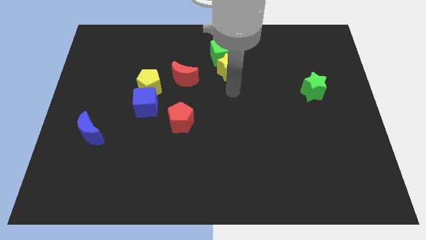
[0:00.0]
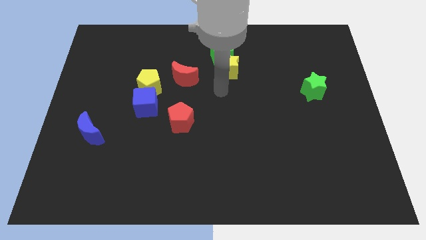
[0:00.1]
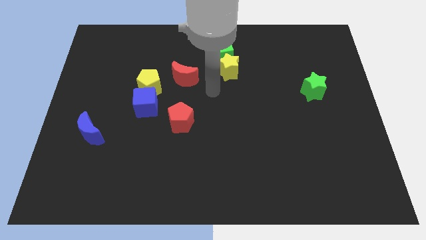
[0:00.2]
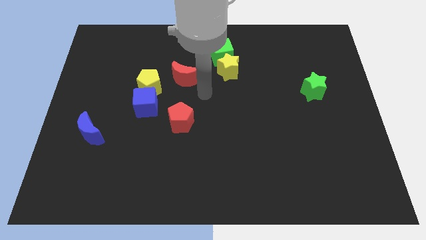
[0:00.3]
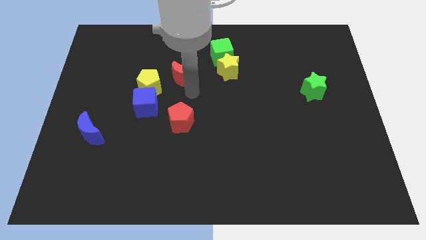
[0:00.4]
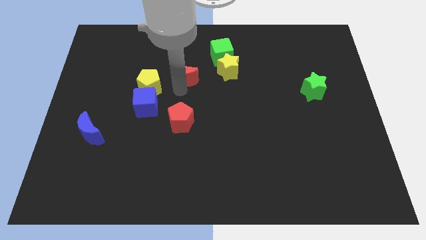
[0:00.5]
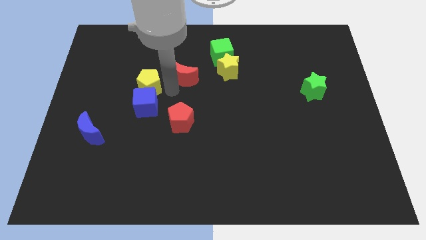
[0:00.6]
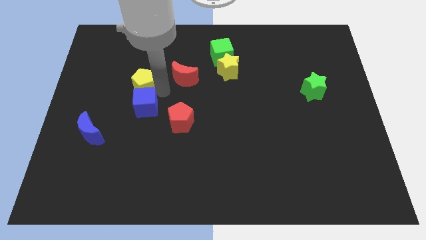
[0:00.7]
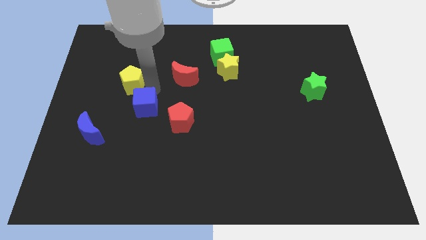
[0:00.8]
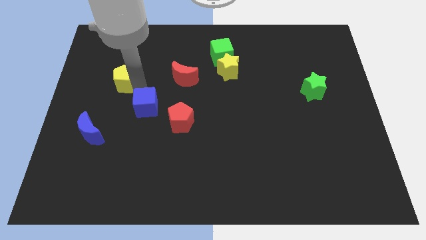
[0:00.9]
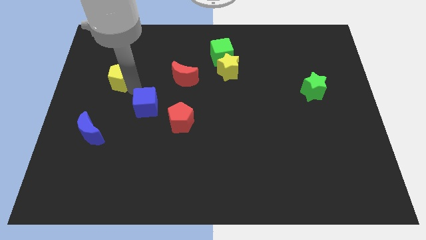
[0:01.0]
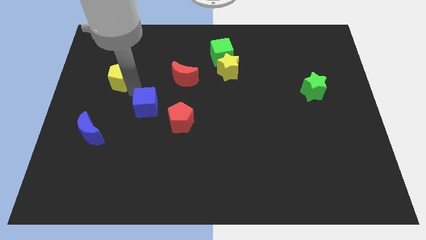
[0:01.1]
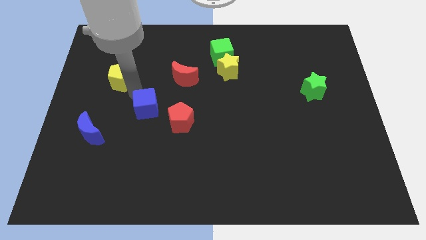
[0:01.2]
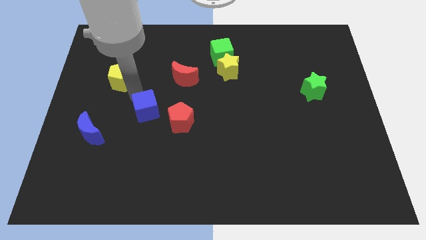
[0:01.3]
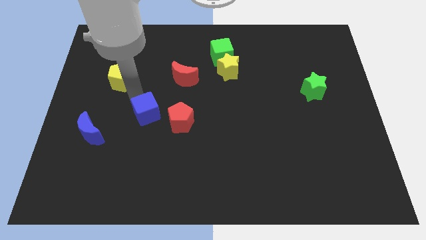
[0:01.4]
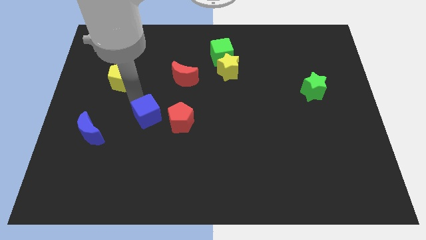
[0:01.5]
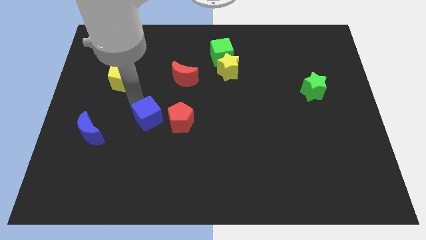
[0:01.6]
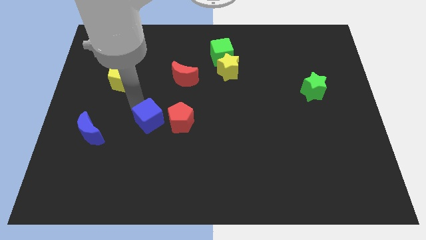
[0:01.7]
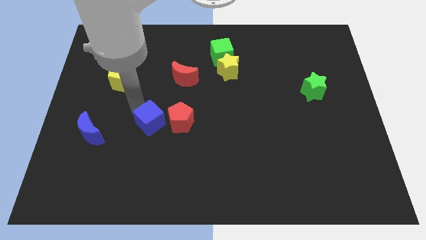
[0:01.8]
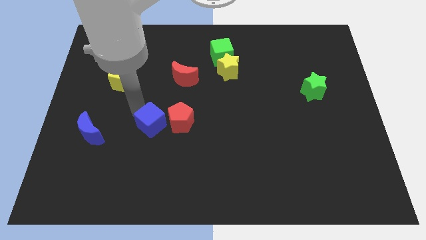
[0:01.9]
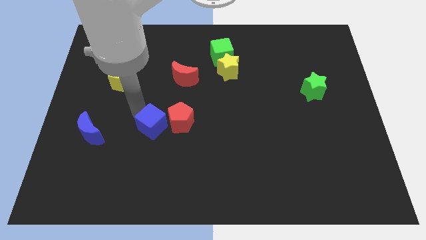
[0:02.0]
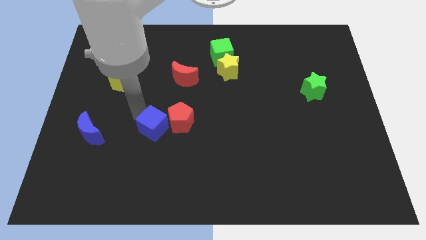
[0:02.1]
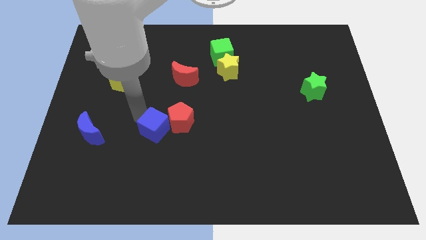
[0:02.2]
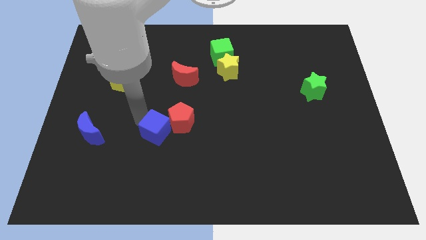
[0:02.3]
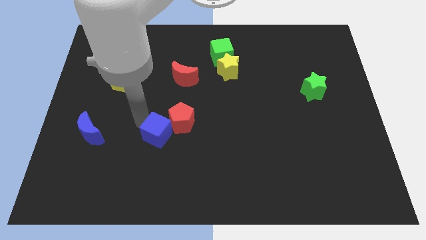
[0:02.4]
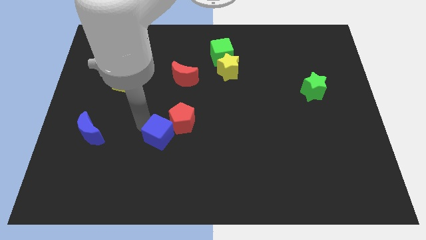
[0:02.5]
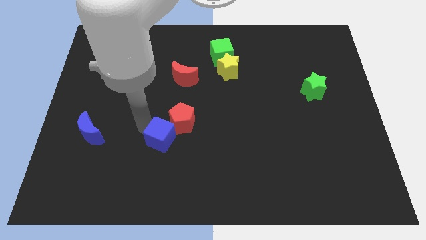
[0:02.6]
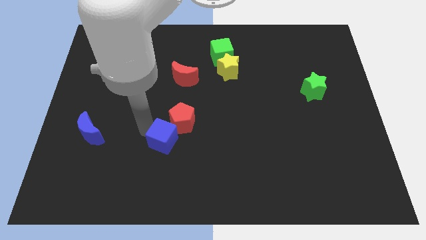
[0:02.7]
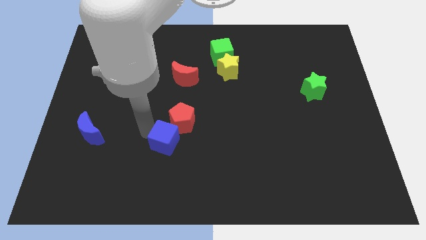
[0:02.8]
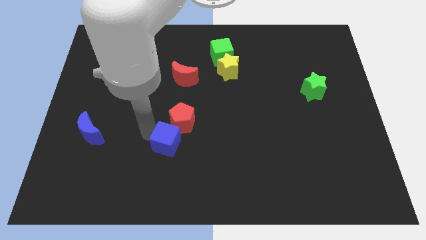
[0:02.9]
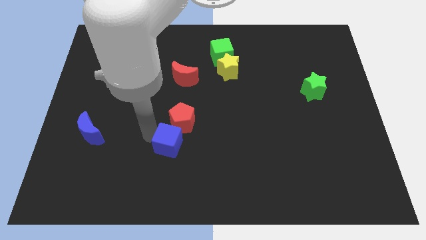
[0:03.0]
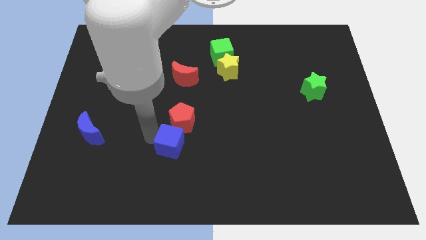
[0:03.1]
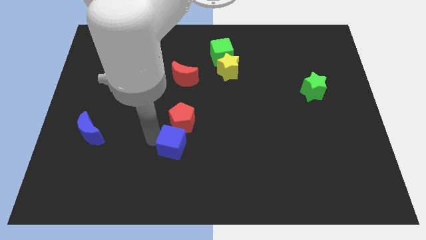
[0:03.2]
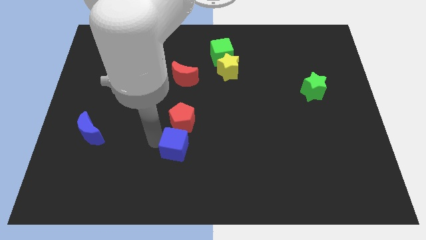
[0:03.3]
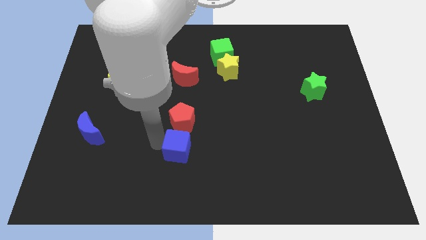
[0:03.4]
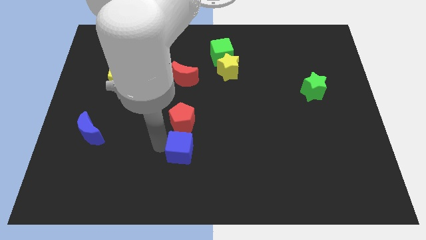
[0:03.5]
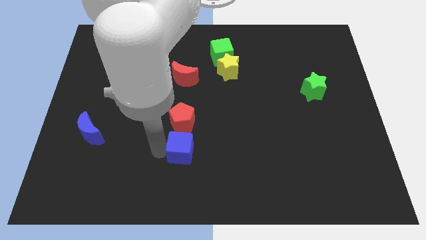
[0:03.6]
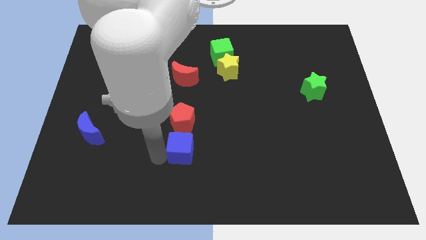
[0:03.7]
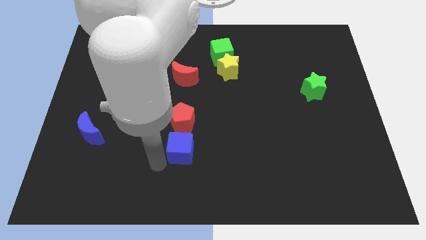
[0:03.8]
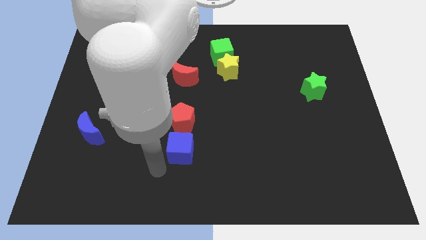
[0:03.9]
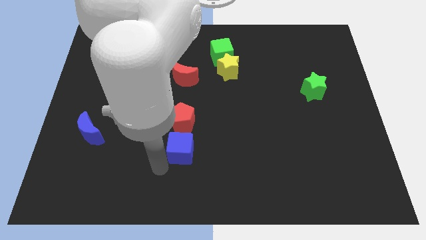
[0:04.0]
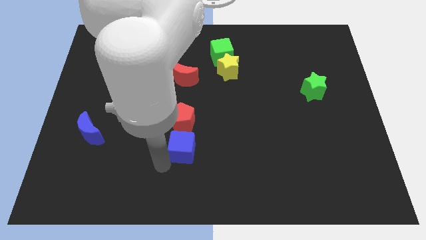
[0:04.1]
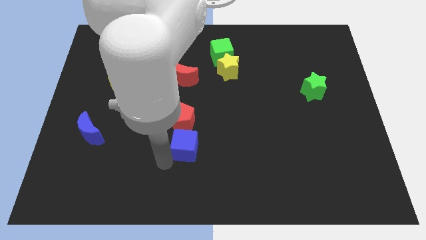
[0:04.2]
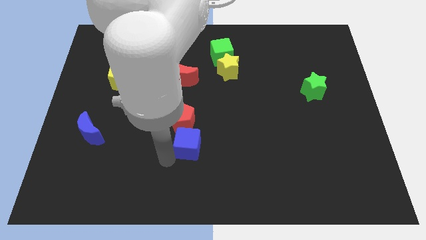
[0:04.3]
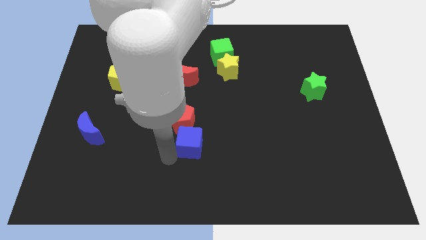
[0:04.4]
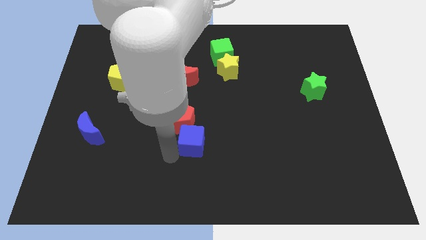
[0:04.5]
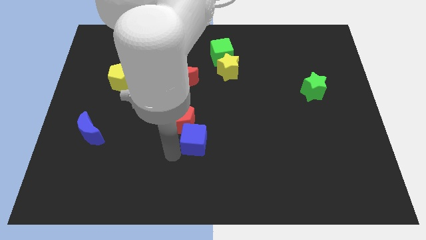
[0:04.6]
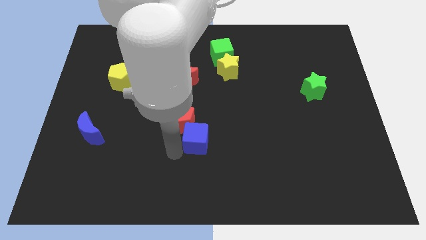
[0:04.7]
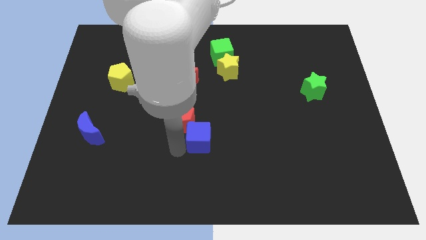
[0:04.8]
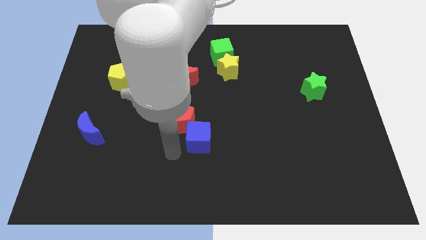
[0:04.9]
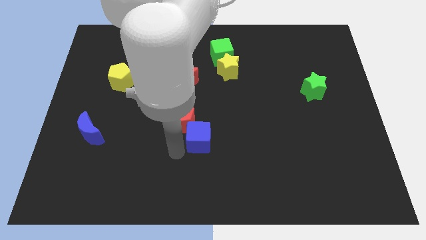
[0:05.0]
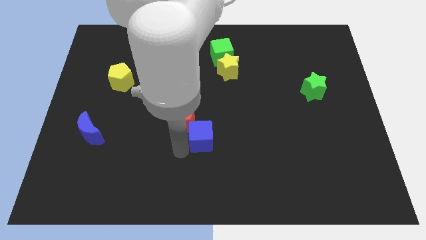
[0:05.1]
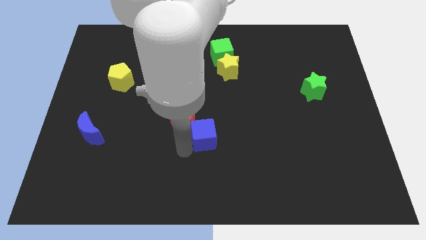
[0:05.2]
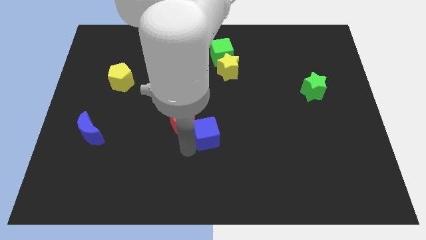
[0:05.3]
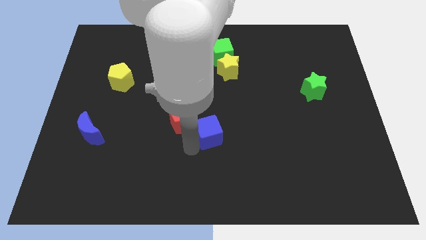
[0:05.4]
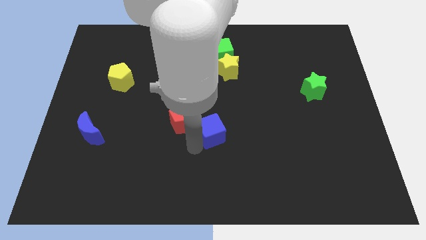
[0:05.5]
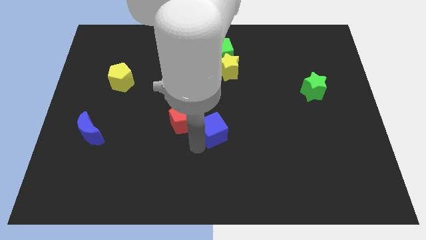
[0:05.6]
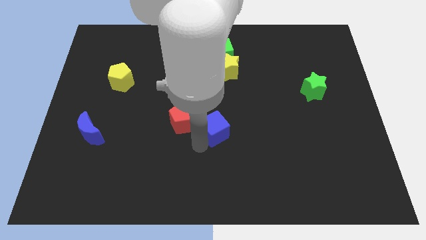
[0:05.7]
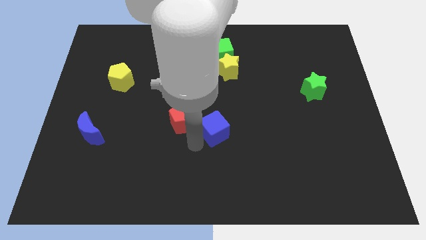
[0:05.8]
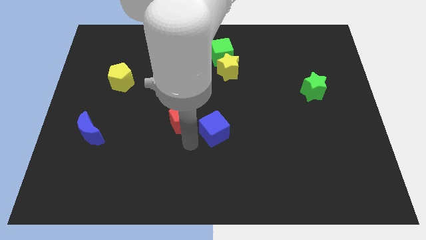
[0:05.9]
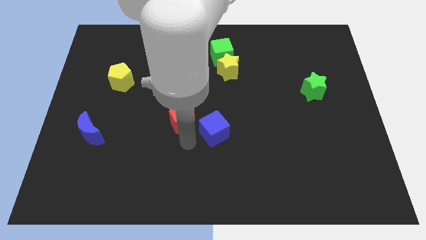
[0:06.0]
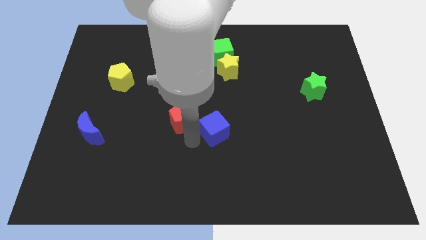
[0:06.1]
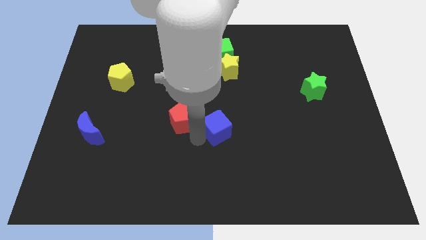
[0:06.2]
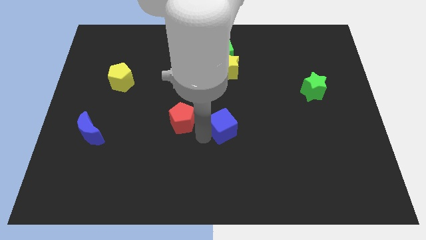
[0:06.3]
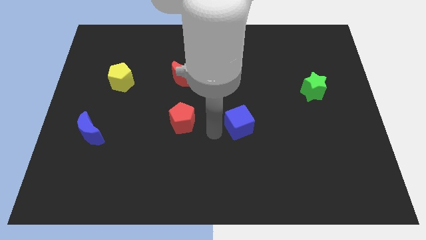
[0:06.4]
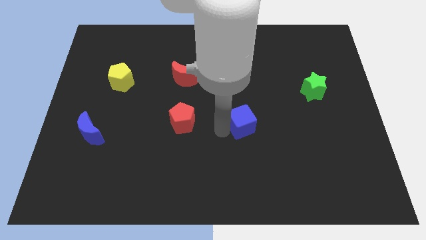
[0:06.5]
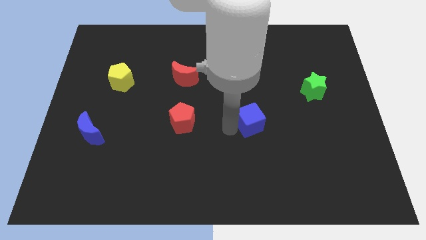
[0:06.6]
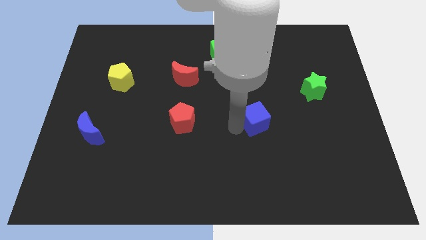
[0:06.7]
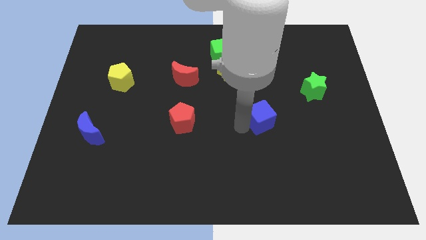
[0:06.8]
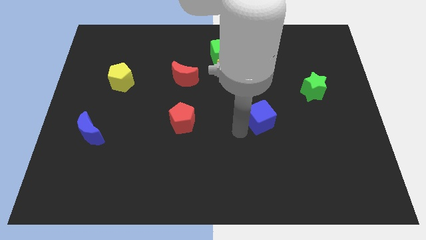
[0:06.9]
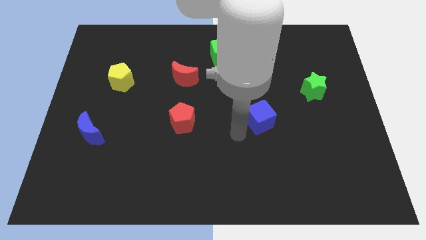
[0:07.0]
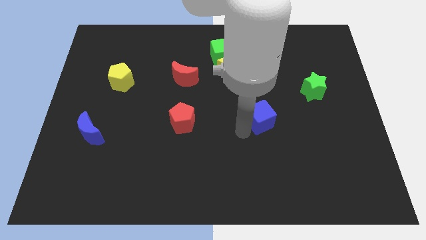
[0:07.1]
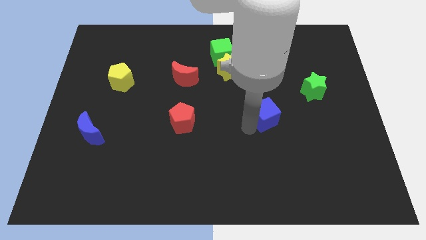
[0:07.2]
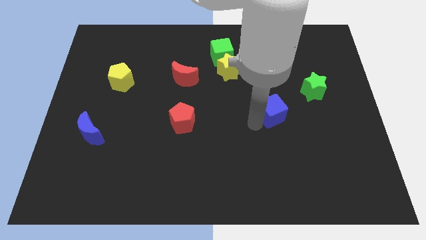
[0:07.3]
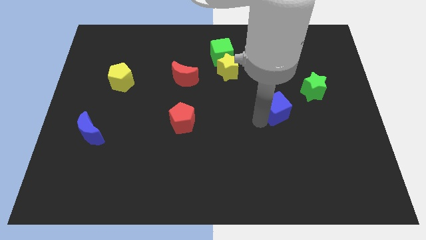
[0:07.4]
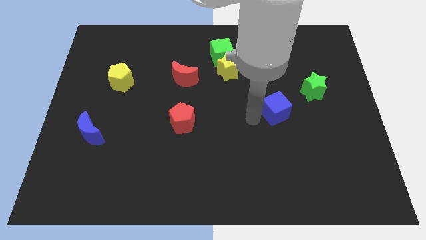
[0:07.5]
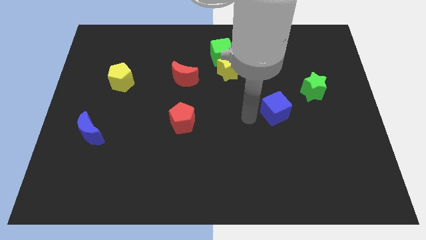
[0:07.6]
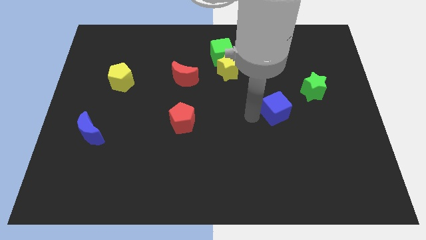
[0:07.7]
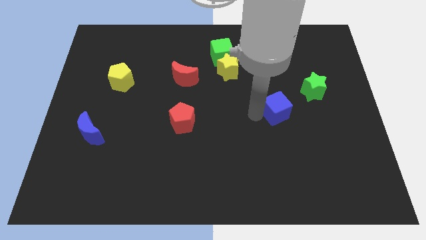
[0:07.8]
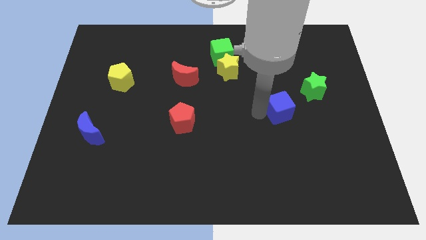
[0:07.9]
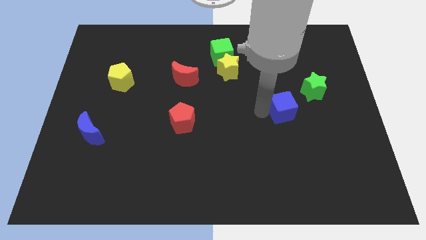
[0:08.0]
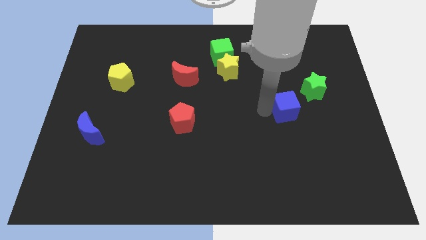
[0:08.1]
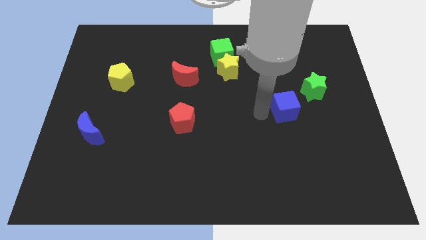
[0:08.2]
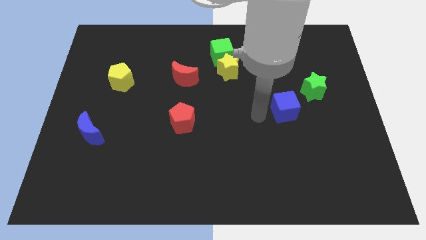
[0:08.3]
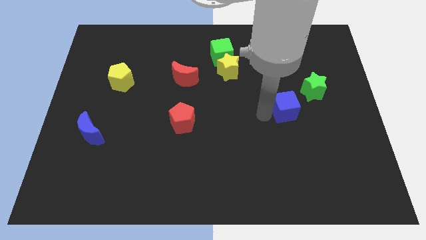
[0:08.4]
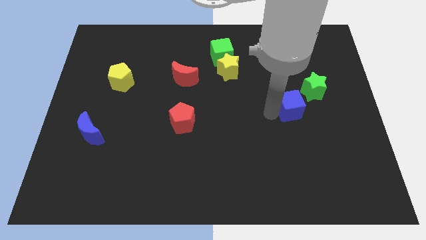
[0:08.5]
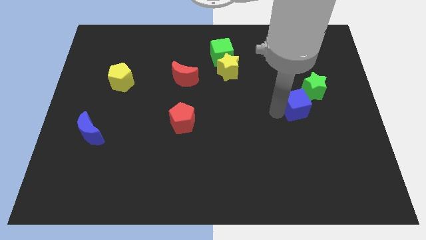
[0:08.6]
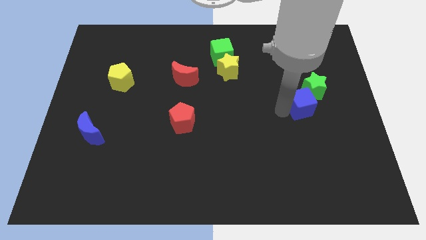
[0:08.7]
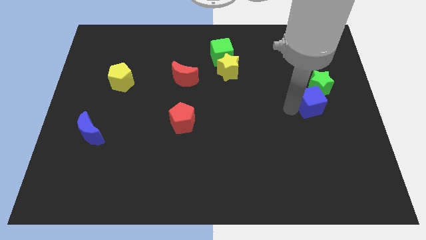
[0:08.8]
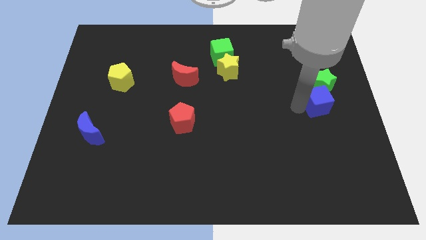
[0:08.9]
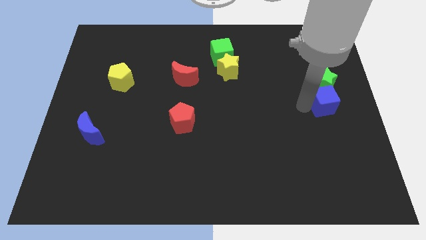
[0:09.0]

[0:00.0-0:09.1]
slide the blue cube to the center right
